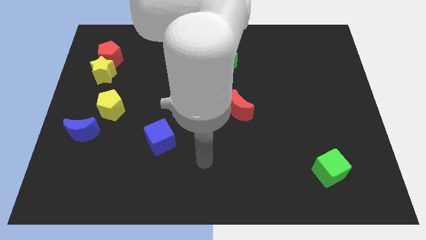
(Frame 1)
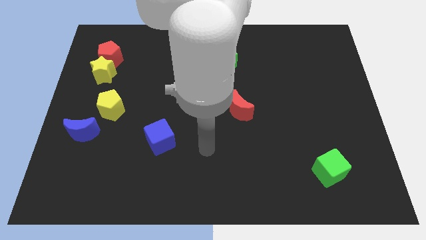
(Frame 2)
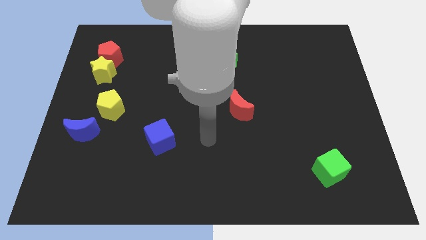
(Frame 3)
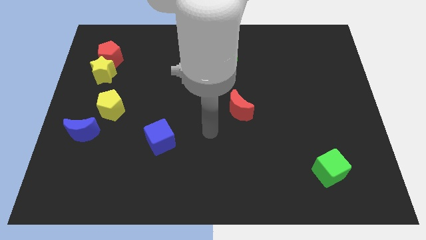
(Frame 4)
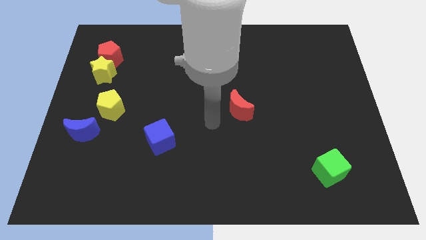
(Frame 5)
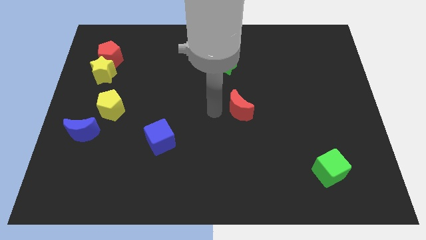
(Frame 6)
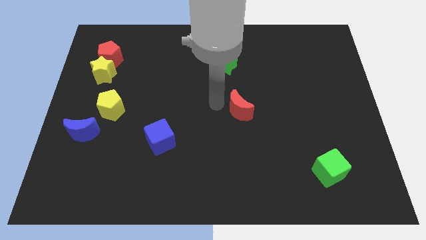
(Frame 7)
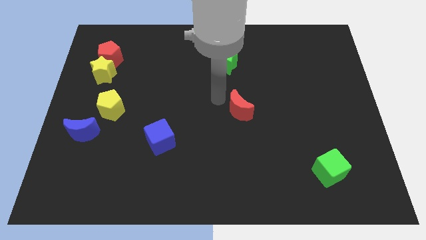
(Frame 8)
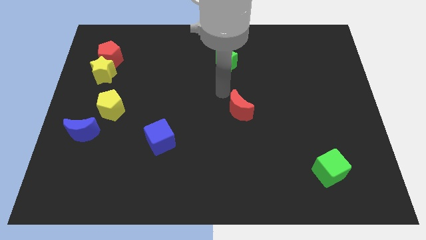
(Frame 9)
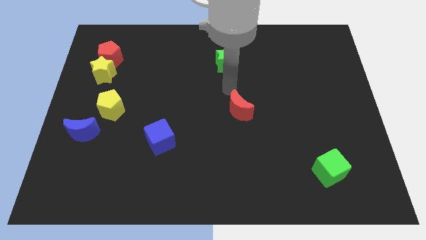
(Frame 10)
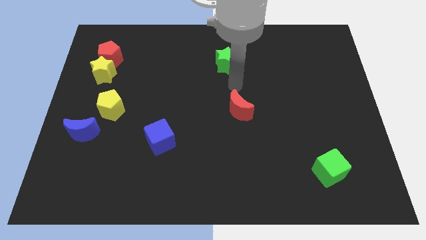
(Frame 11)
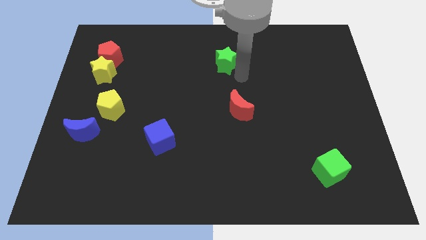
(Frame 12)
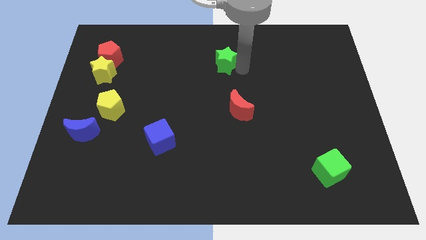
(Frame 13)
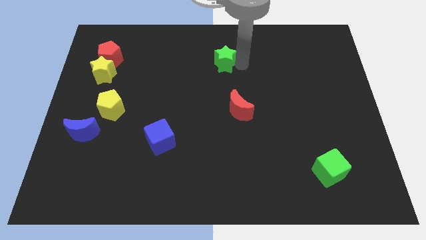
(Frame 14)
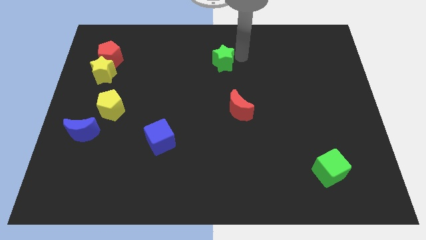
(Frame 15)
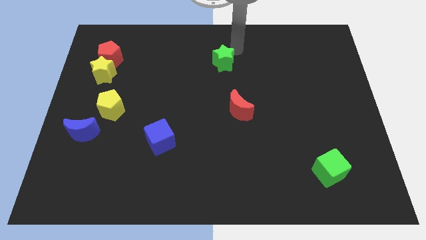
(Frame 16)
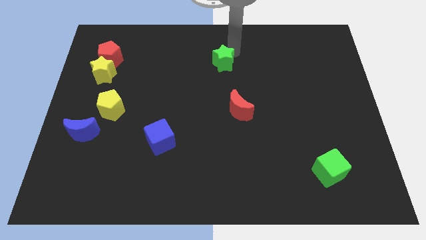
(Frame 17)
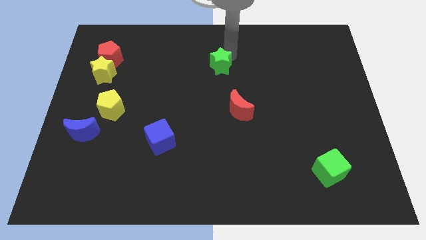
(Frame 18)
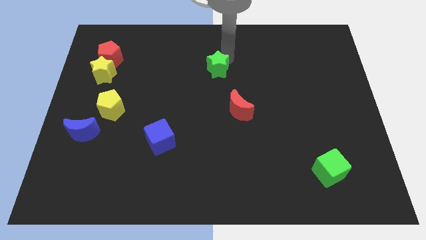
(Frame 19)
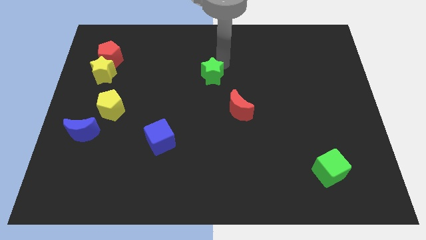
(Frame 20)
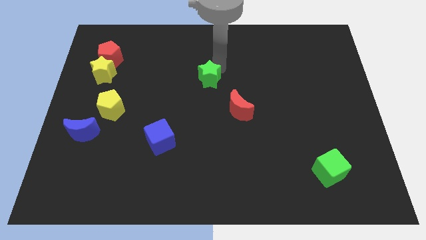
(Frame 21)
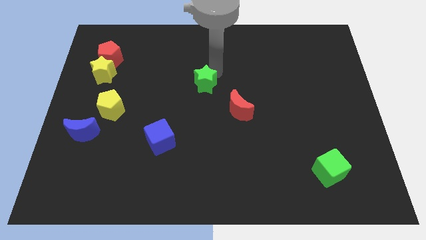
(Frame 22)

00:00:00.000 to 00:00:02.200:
slightly slide the green star down and to the left

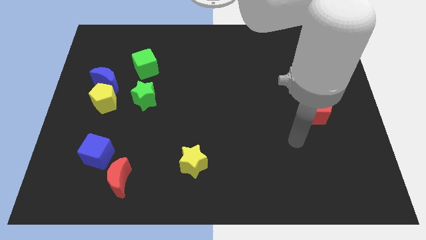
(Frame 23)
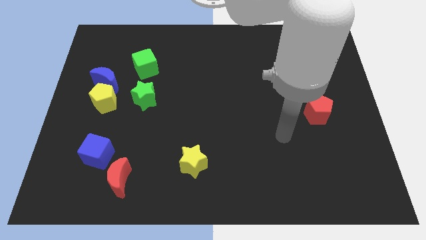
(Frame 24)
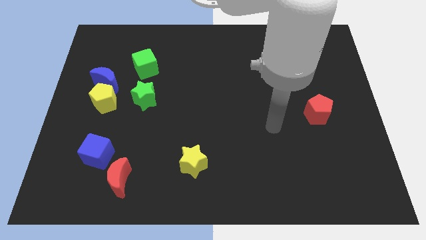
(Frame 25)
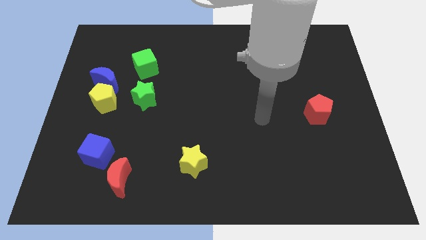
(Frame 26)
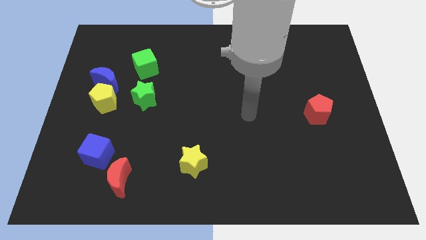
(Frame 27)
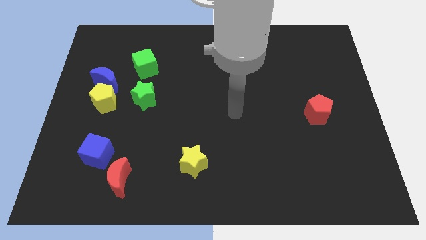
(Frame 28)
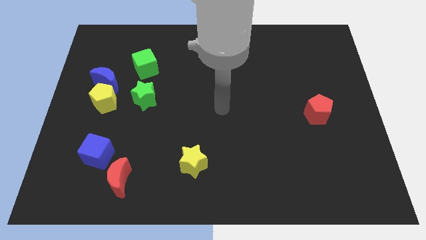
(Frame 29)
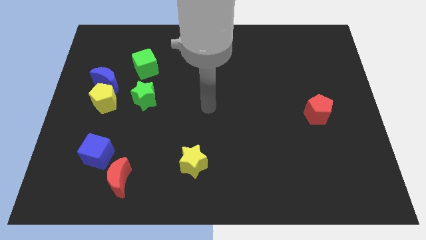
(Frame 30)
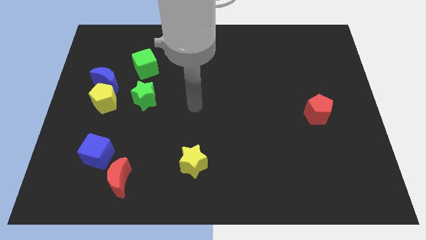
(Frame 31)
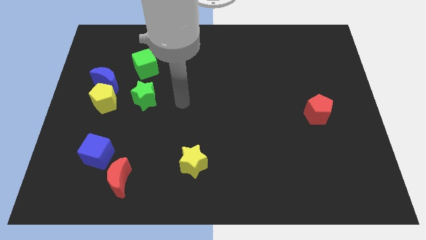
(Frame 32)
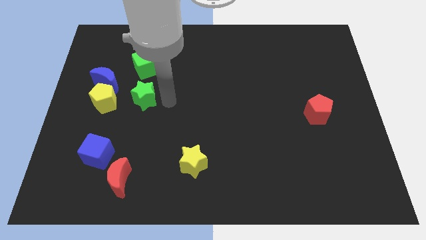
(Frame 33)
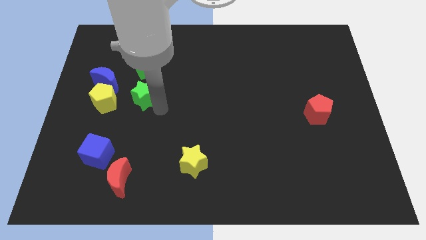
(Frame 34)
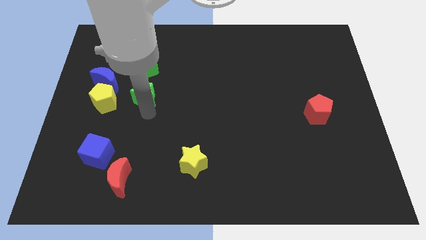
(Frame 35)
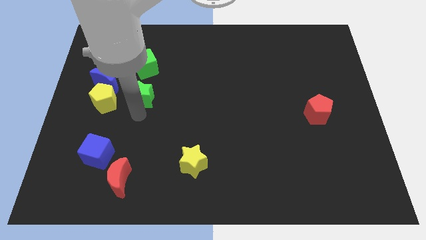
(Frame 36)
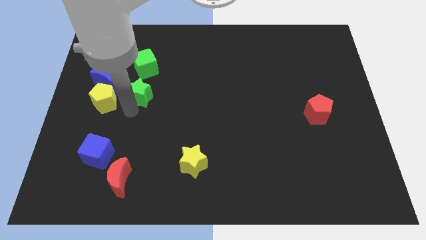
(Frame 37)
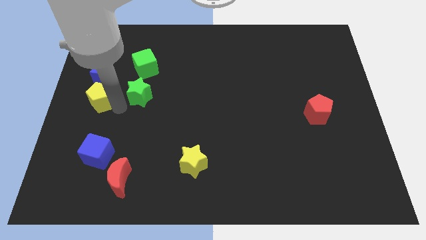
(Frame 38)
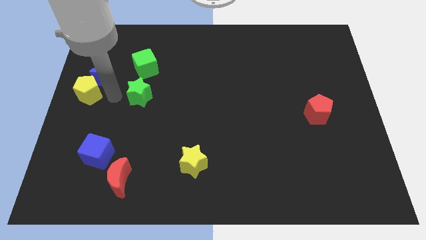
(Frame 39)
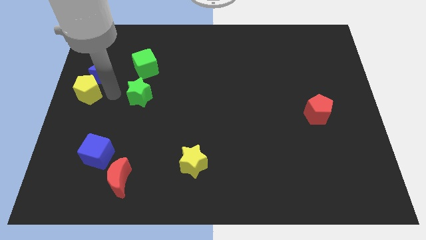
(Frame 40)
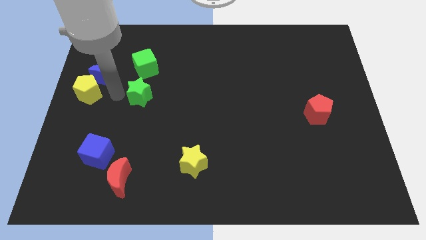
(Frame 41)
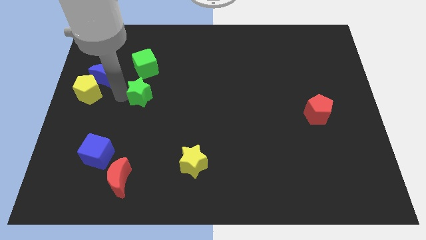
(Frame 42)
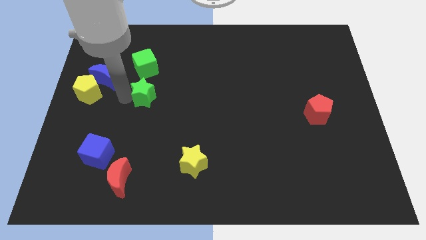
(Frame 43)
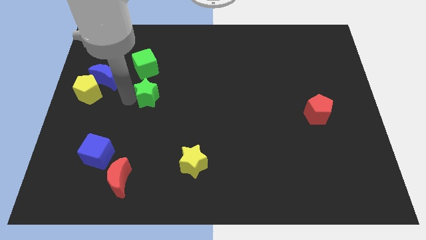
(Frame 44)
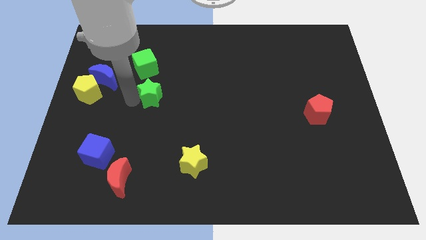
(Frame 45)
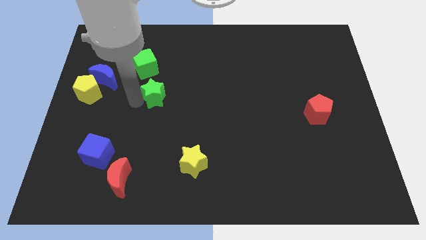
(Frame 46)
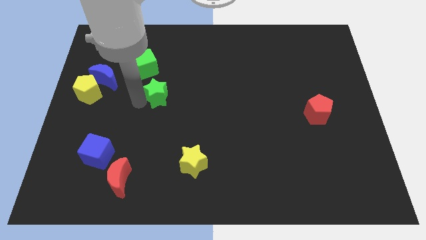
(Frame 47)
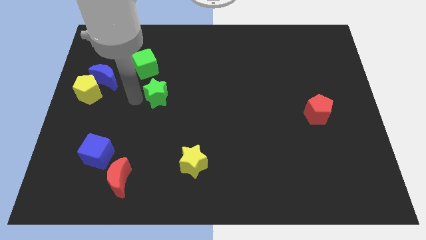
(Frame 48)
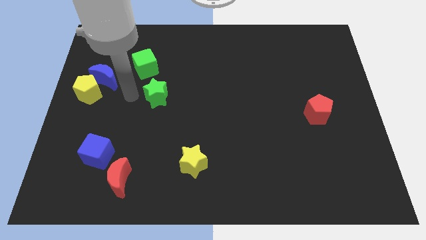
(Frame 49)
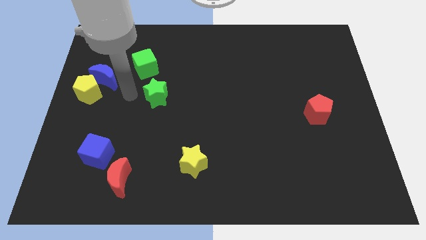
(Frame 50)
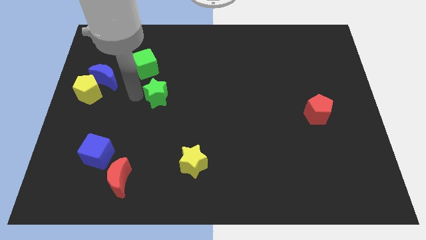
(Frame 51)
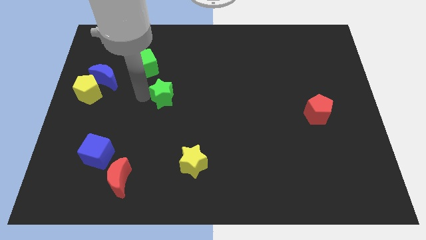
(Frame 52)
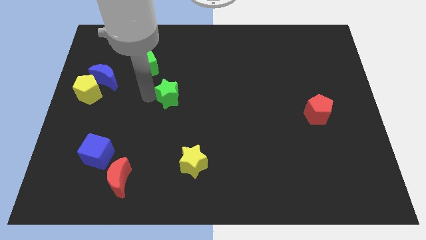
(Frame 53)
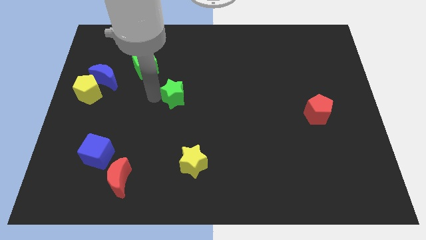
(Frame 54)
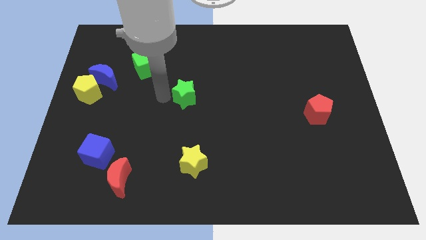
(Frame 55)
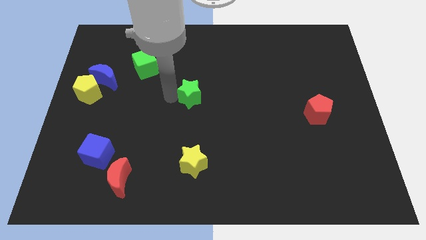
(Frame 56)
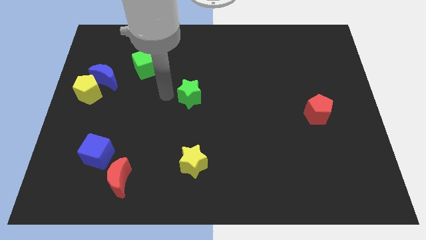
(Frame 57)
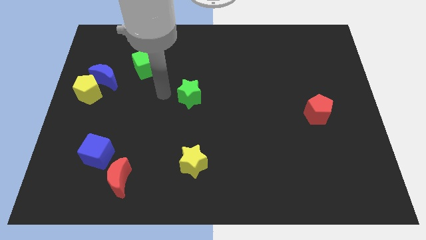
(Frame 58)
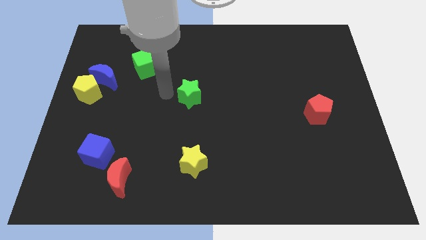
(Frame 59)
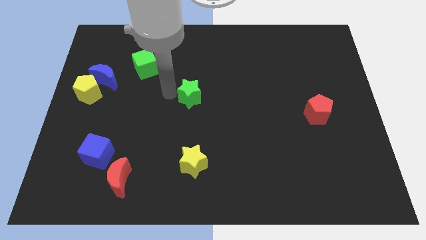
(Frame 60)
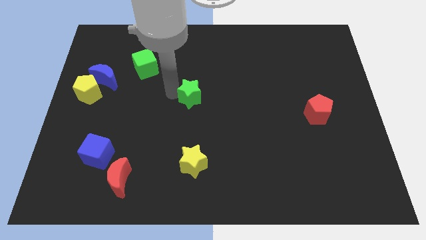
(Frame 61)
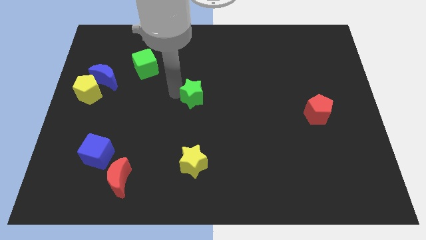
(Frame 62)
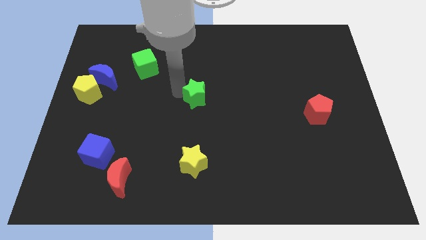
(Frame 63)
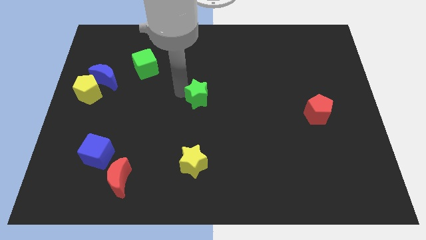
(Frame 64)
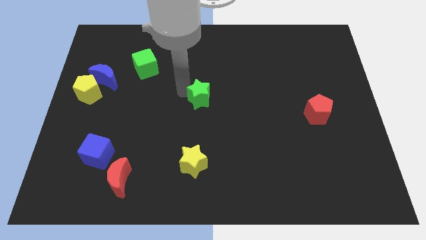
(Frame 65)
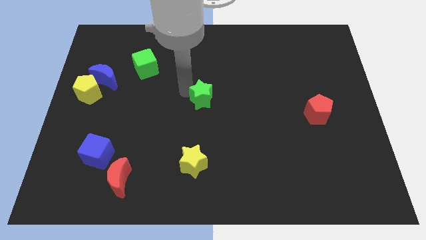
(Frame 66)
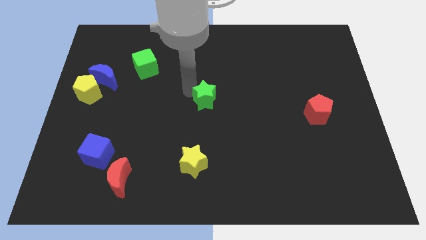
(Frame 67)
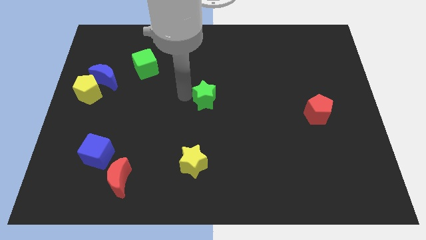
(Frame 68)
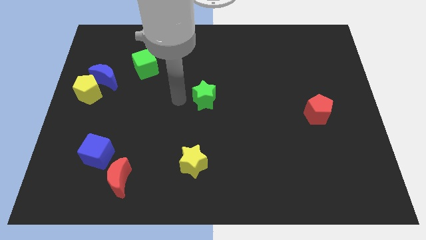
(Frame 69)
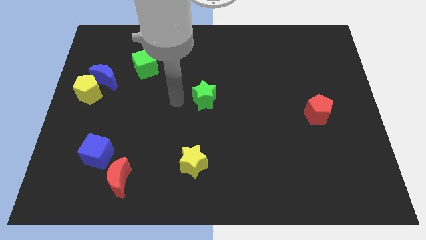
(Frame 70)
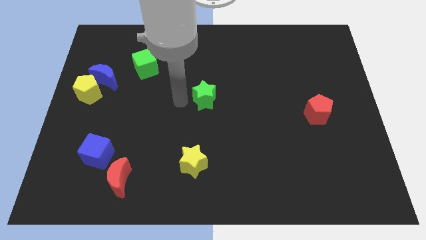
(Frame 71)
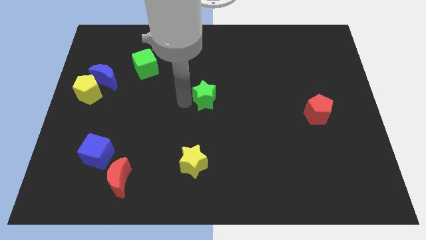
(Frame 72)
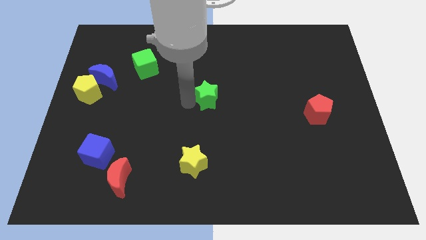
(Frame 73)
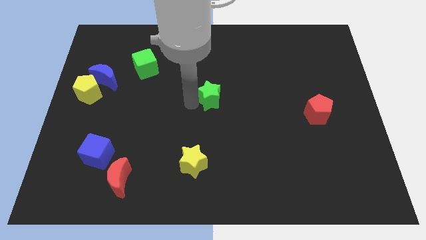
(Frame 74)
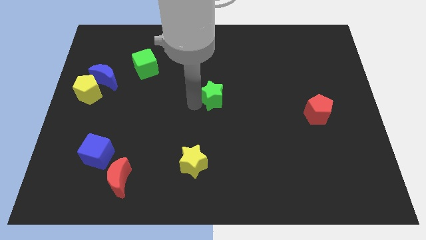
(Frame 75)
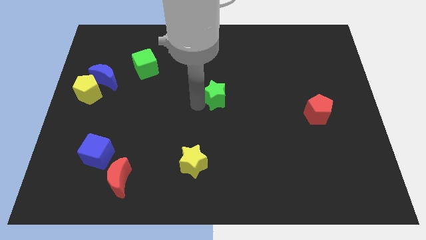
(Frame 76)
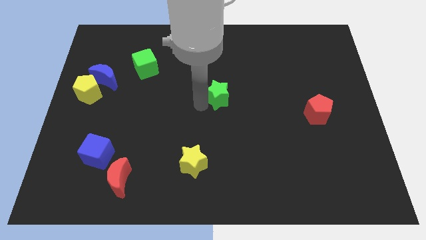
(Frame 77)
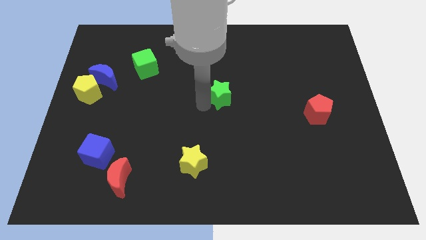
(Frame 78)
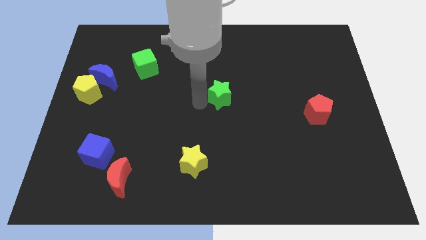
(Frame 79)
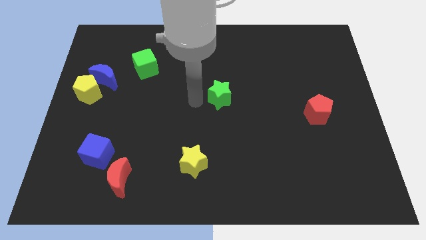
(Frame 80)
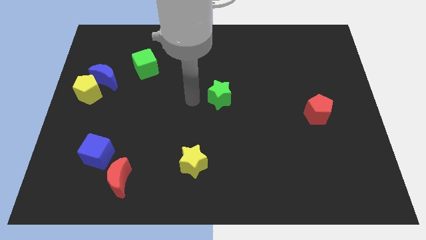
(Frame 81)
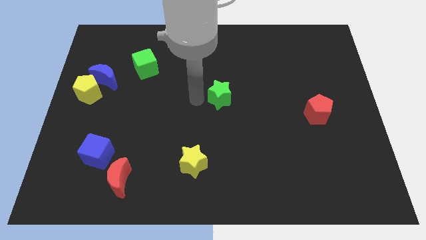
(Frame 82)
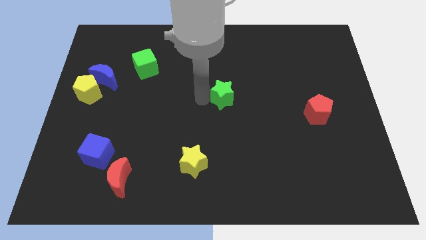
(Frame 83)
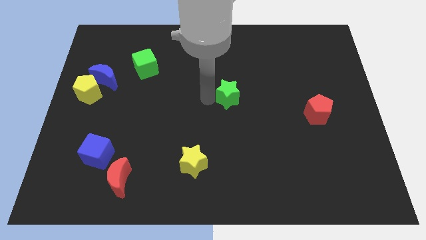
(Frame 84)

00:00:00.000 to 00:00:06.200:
slide the green star right
